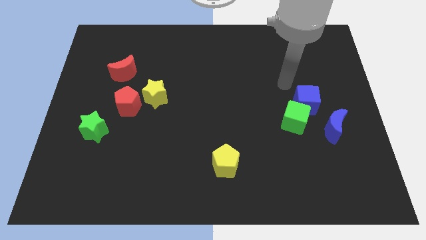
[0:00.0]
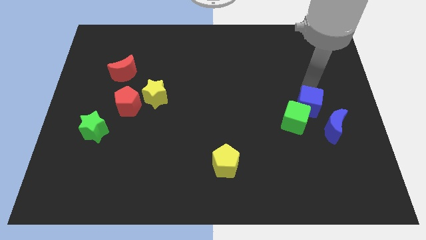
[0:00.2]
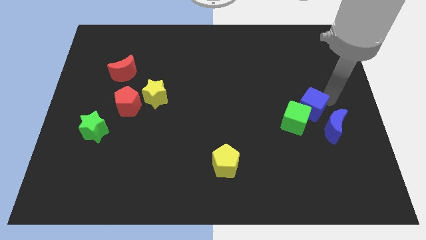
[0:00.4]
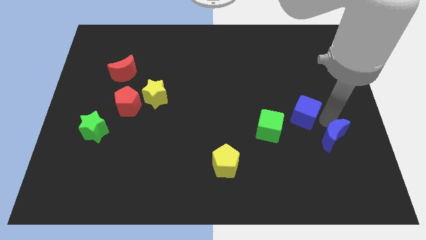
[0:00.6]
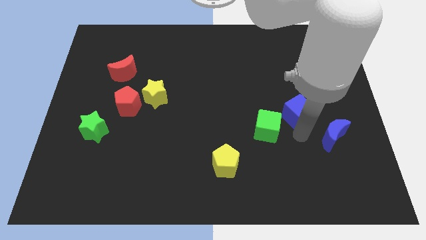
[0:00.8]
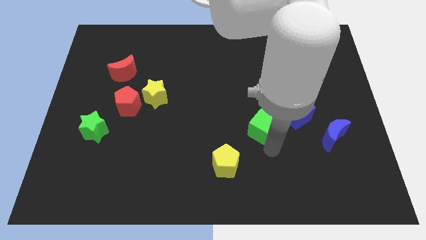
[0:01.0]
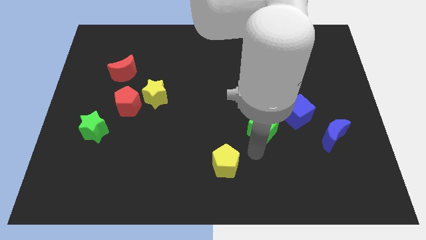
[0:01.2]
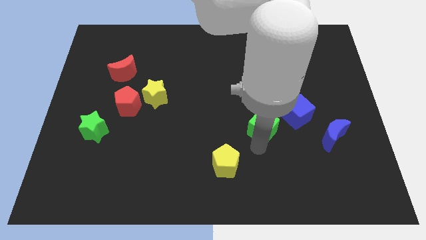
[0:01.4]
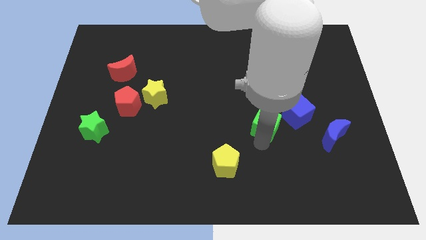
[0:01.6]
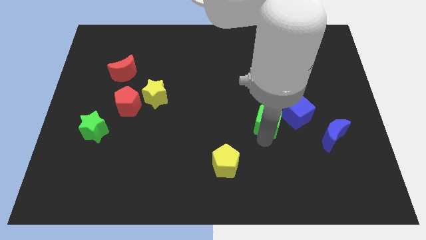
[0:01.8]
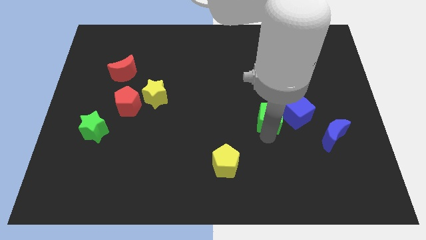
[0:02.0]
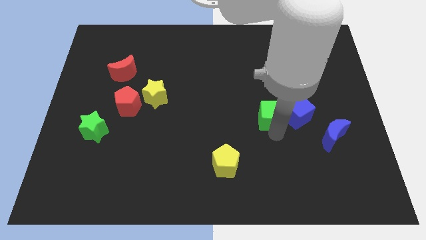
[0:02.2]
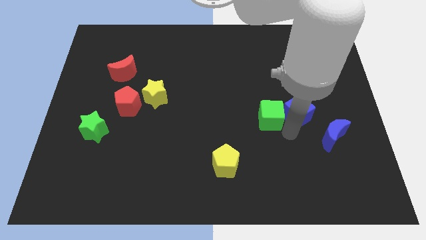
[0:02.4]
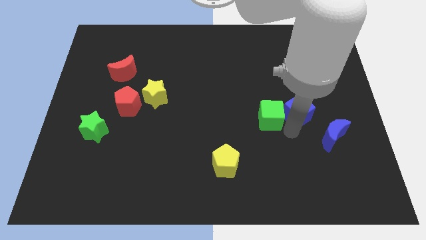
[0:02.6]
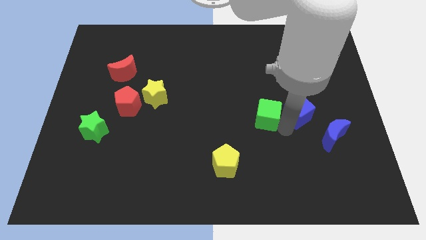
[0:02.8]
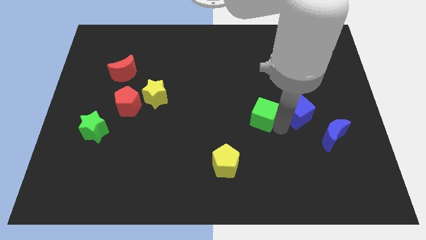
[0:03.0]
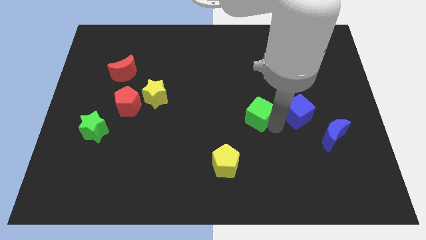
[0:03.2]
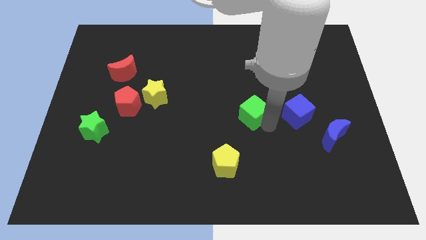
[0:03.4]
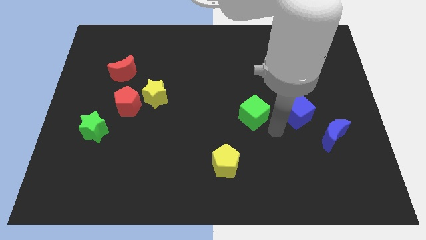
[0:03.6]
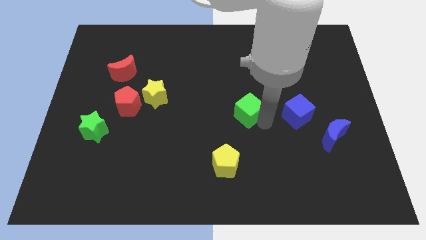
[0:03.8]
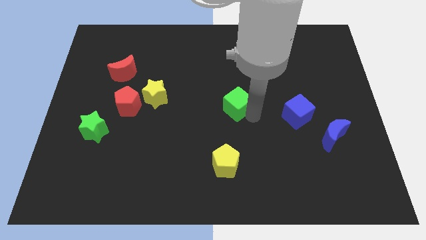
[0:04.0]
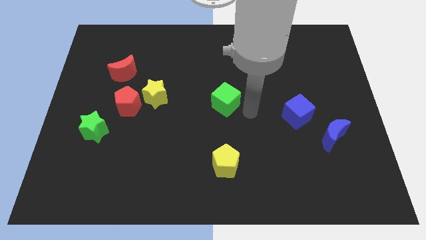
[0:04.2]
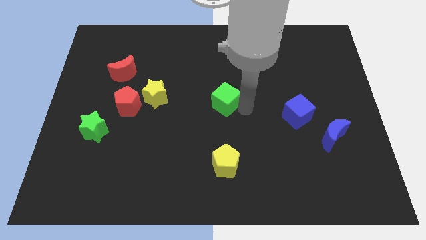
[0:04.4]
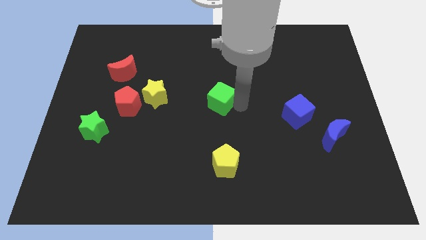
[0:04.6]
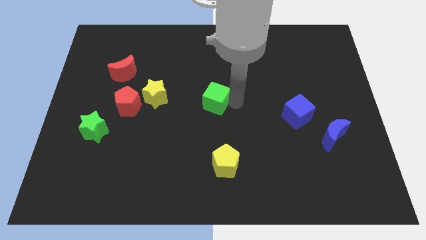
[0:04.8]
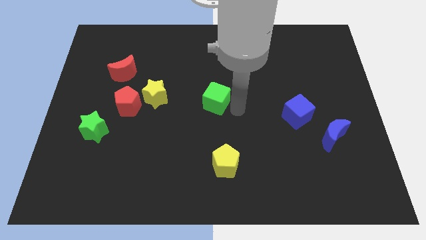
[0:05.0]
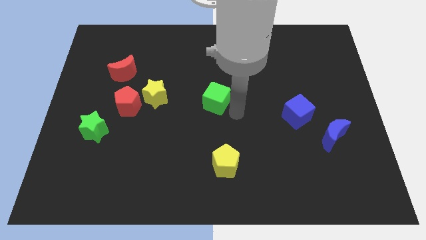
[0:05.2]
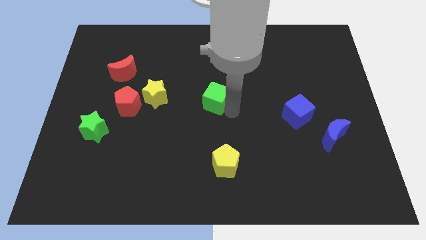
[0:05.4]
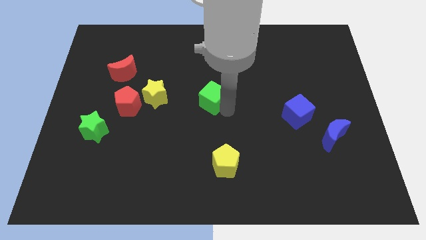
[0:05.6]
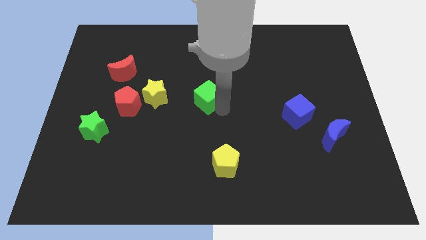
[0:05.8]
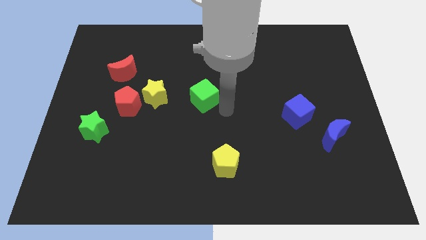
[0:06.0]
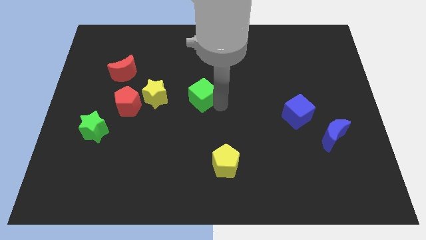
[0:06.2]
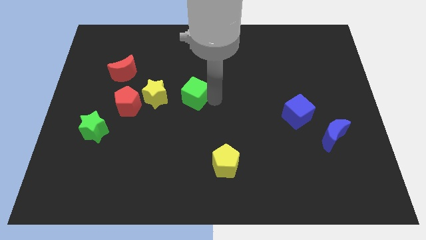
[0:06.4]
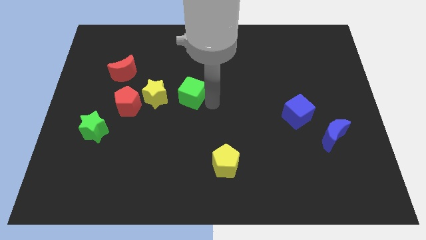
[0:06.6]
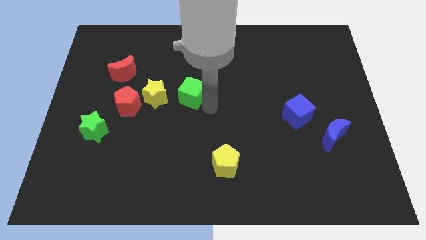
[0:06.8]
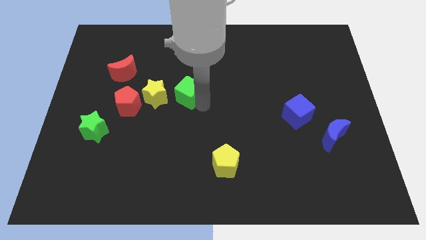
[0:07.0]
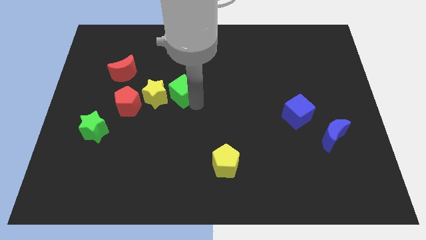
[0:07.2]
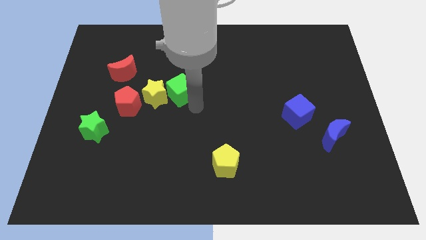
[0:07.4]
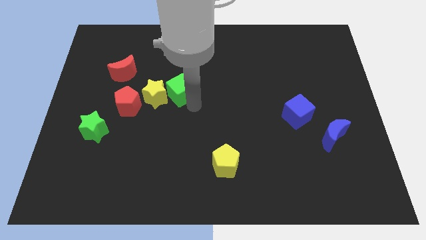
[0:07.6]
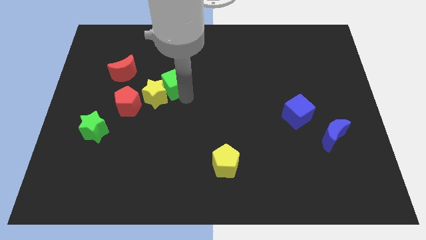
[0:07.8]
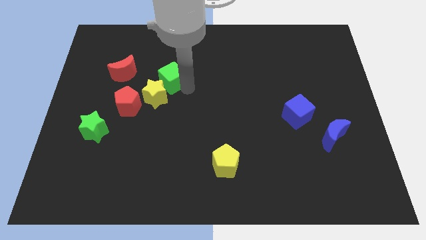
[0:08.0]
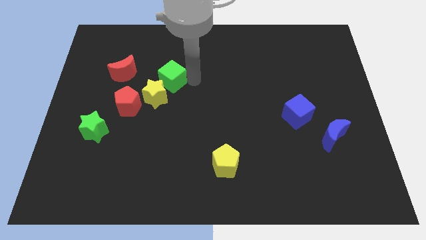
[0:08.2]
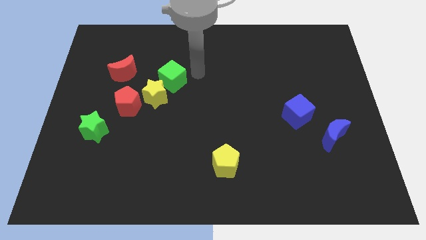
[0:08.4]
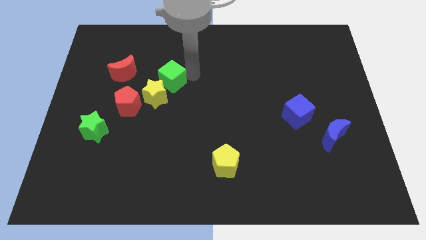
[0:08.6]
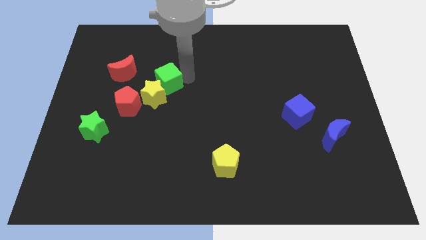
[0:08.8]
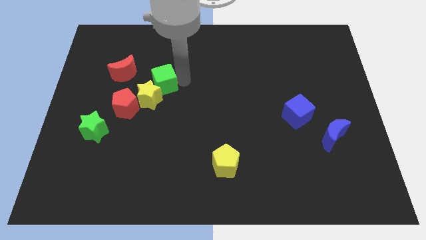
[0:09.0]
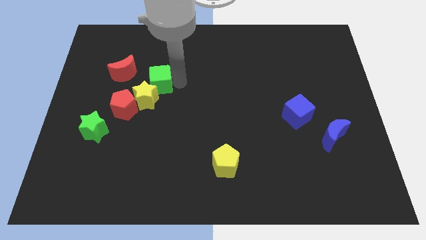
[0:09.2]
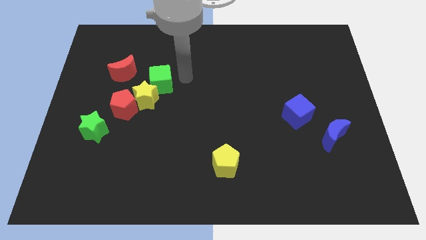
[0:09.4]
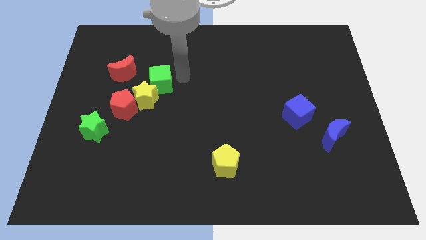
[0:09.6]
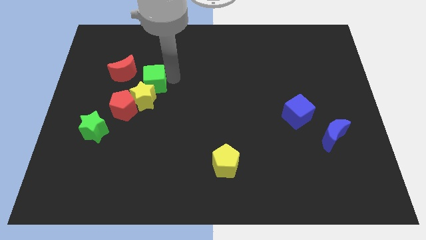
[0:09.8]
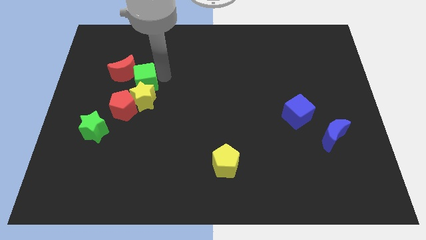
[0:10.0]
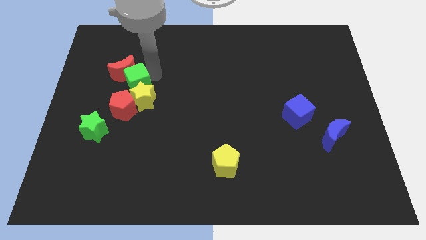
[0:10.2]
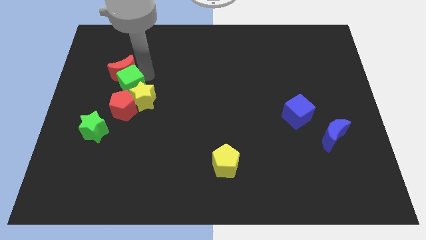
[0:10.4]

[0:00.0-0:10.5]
slide the green cube to the left side of the yellow star

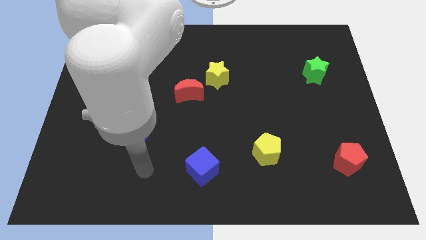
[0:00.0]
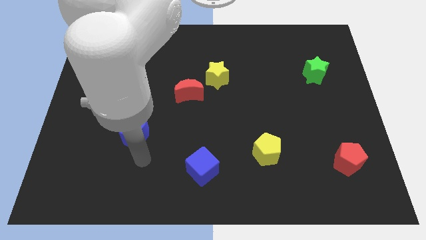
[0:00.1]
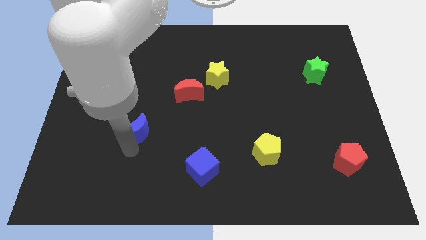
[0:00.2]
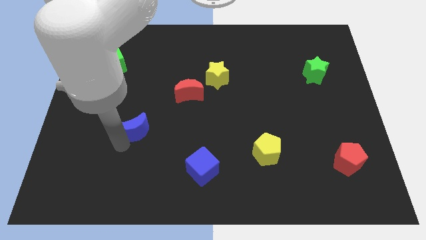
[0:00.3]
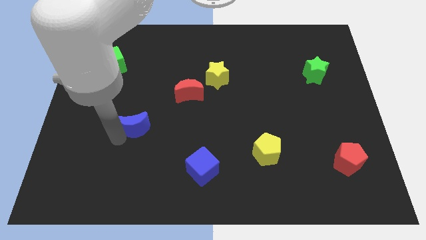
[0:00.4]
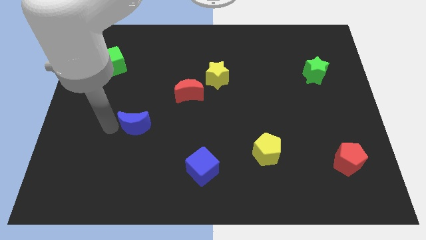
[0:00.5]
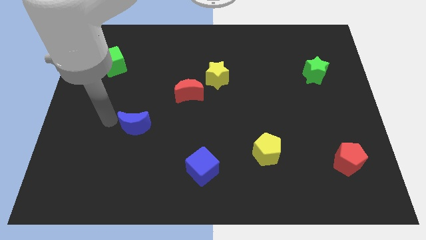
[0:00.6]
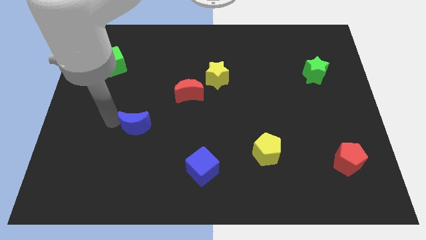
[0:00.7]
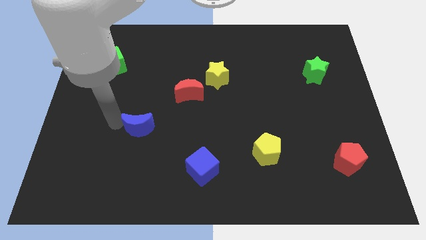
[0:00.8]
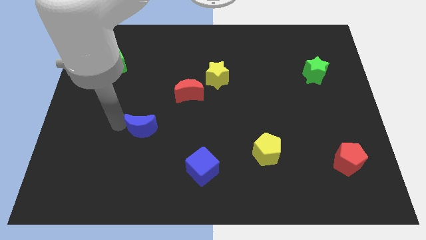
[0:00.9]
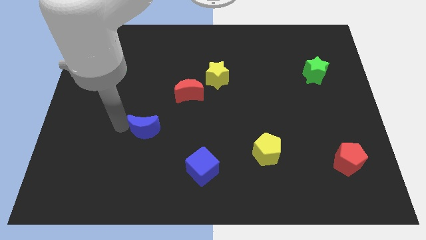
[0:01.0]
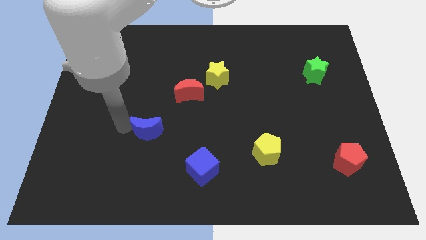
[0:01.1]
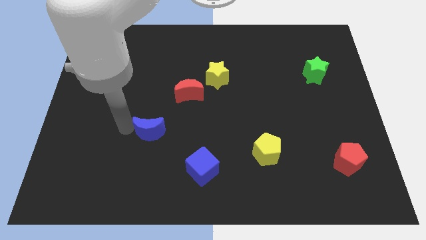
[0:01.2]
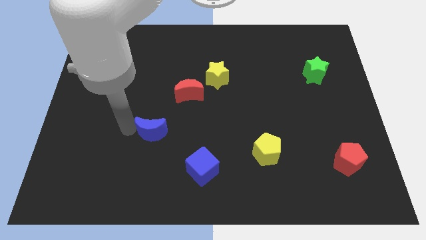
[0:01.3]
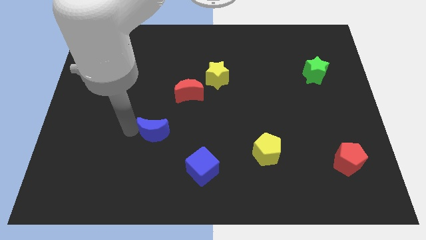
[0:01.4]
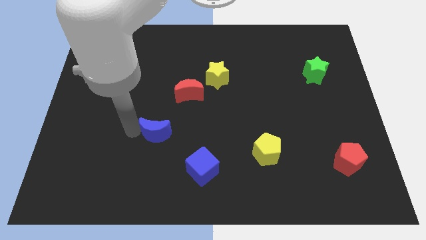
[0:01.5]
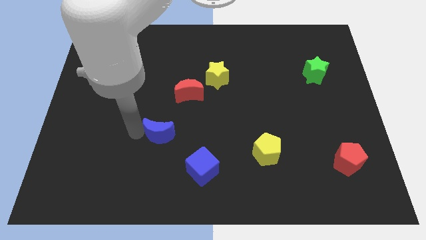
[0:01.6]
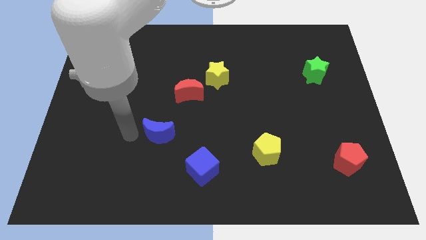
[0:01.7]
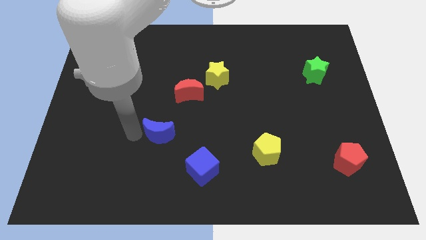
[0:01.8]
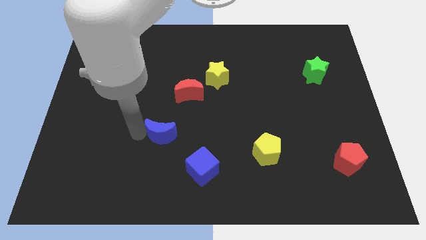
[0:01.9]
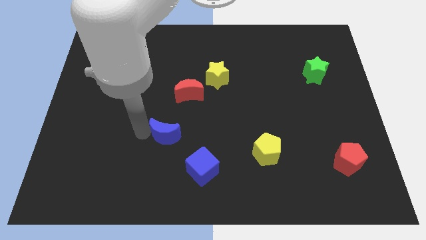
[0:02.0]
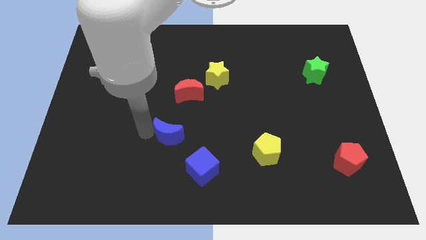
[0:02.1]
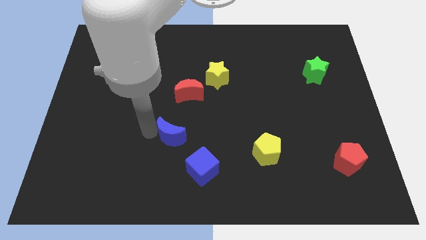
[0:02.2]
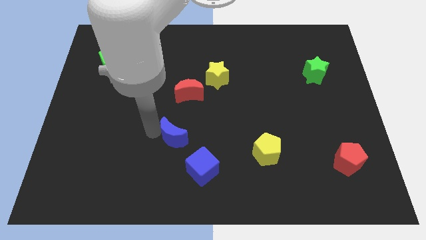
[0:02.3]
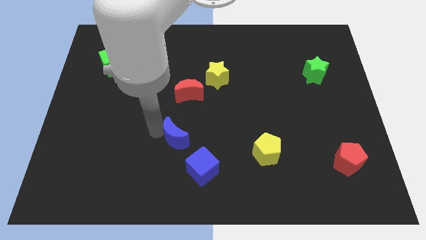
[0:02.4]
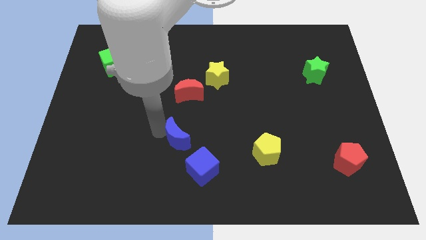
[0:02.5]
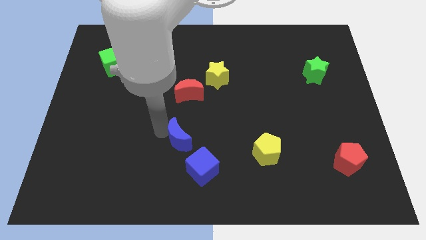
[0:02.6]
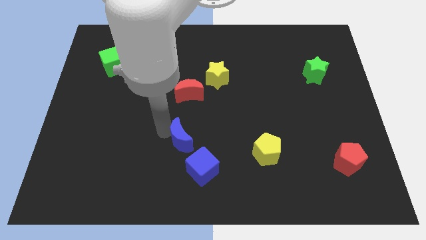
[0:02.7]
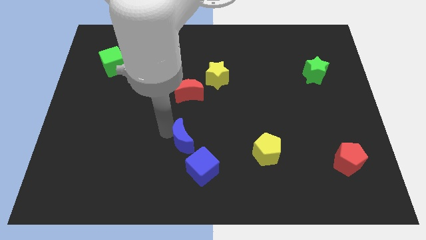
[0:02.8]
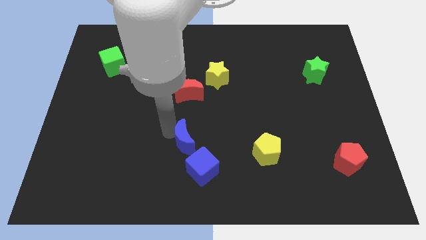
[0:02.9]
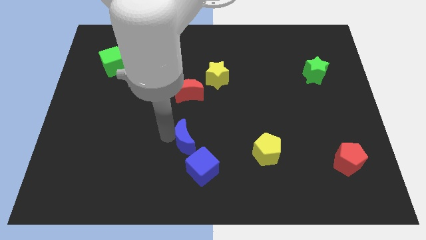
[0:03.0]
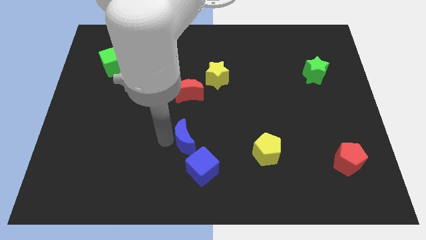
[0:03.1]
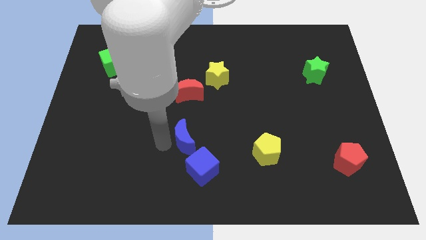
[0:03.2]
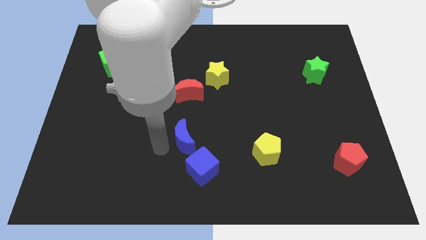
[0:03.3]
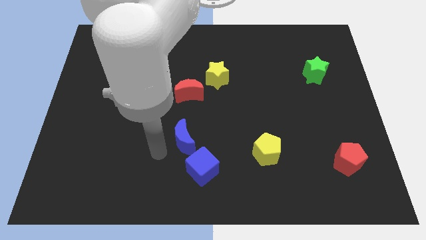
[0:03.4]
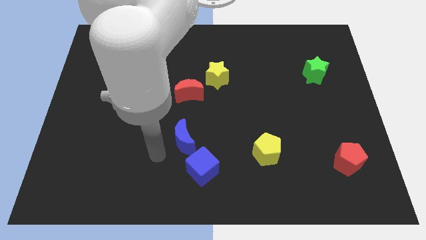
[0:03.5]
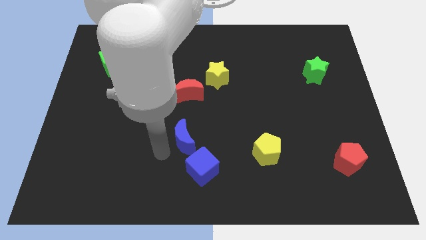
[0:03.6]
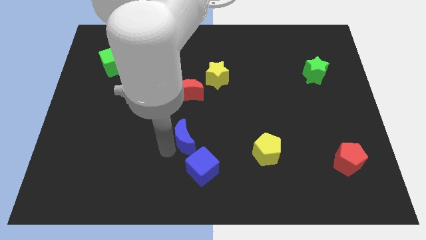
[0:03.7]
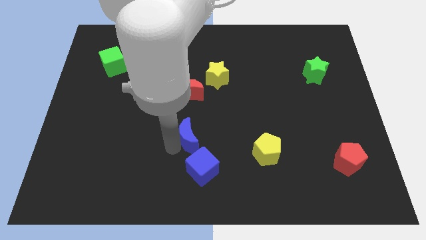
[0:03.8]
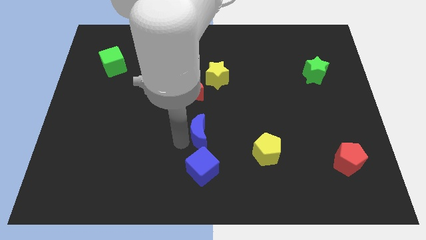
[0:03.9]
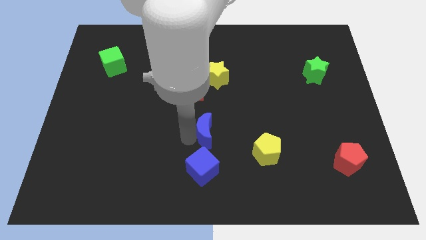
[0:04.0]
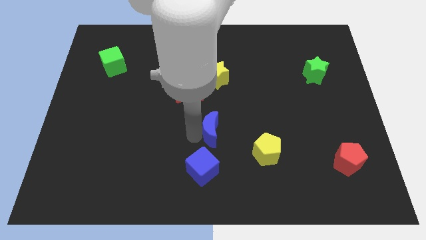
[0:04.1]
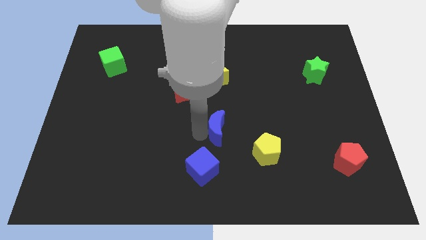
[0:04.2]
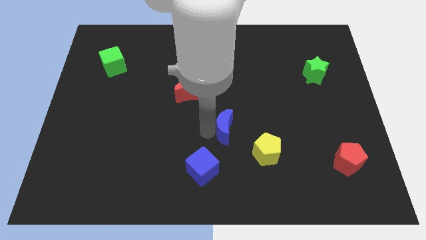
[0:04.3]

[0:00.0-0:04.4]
put the blue moon to the top left of the yellow pentagon
